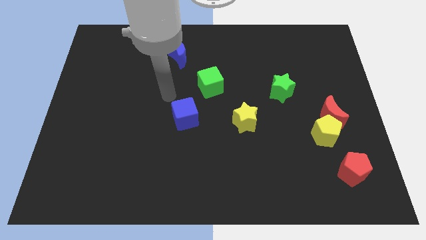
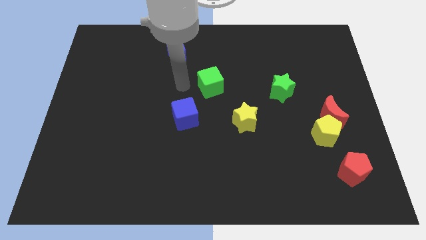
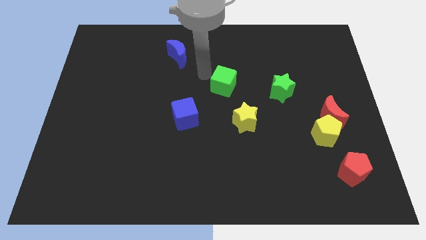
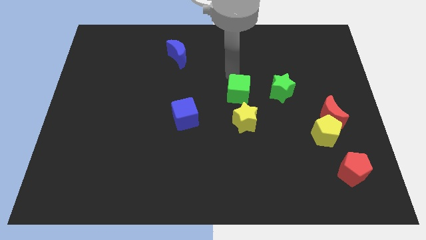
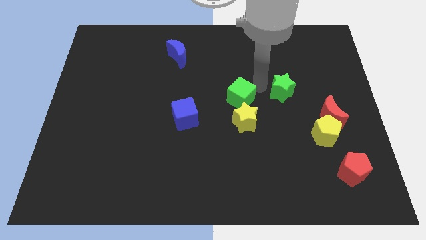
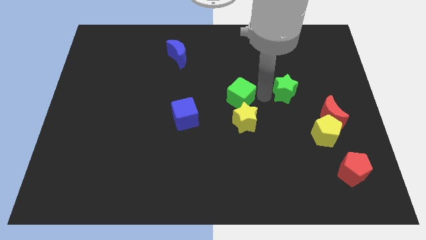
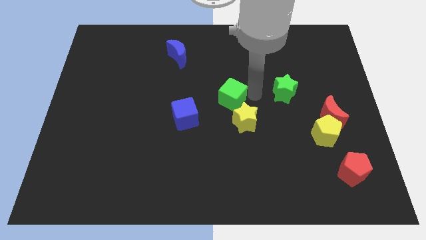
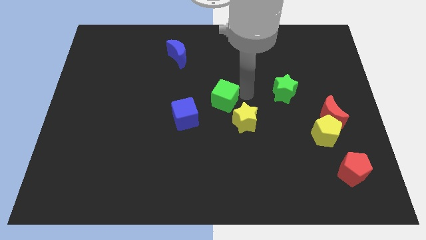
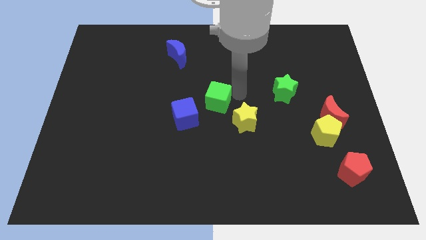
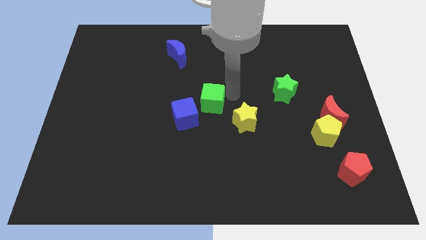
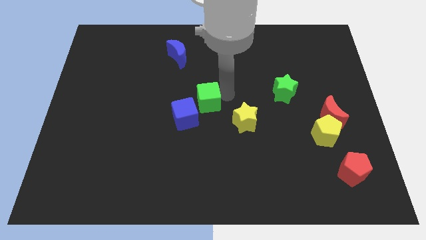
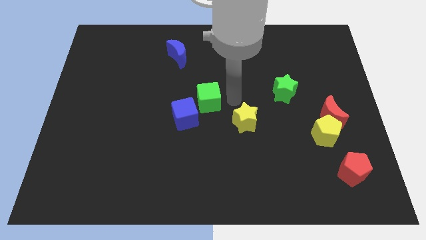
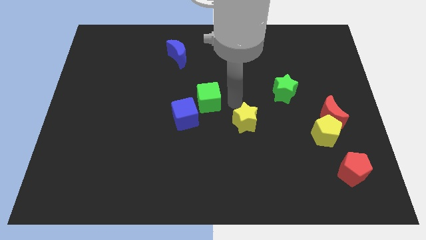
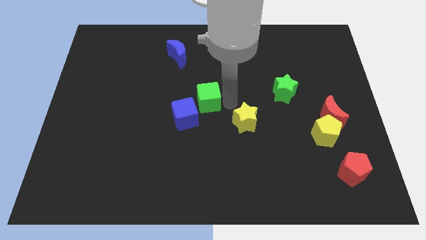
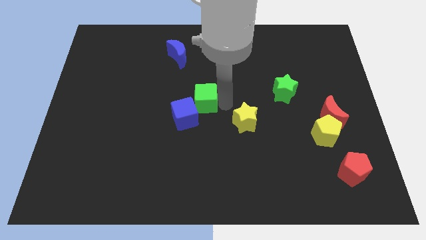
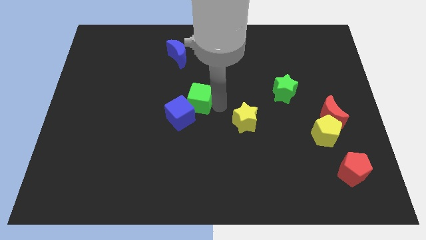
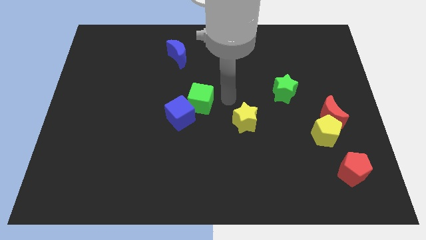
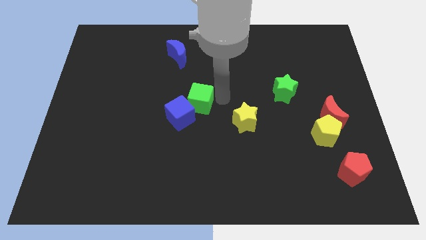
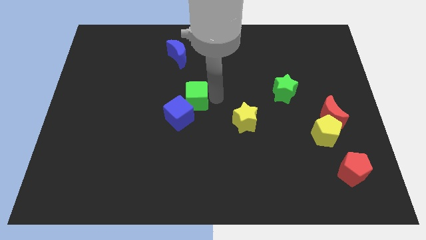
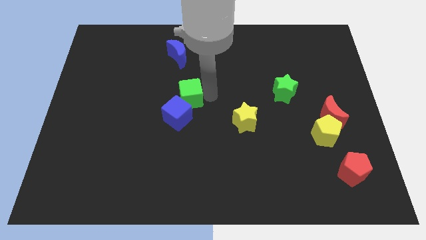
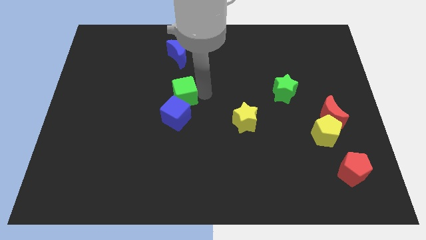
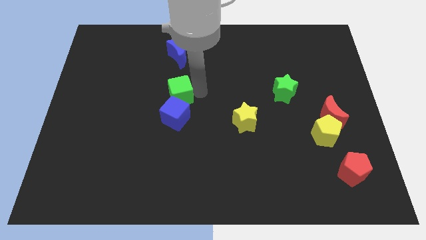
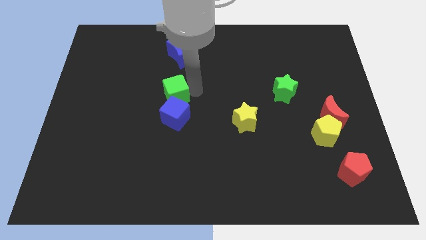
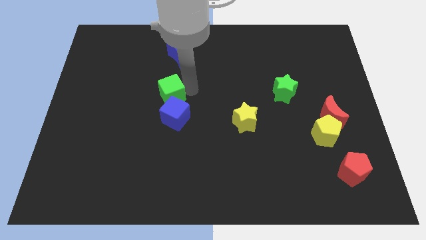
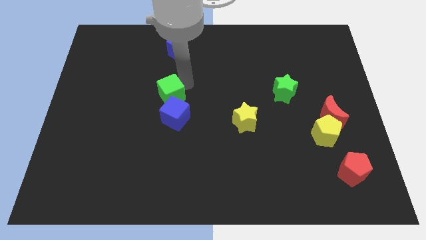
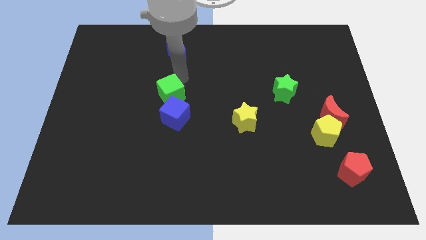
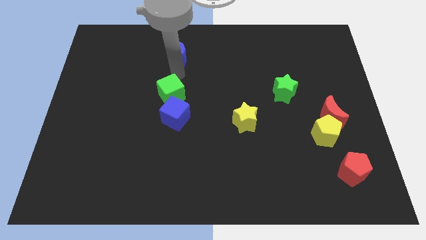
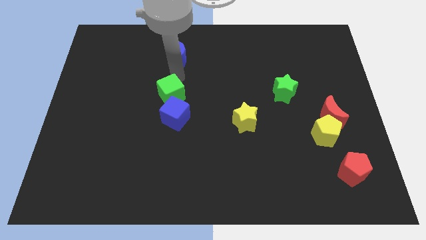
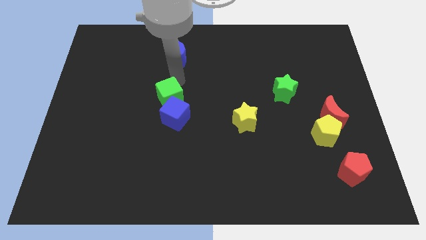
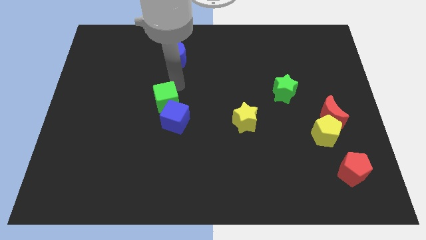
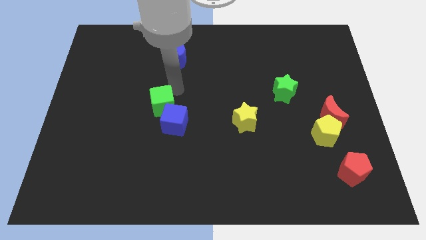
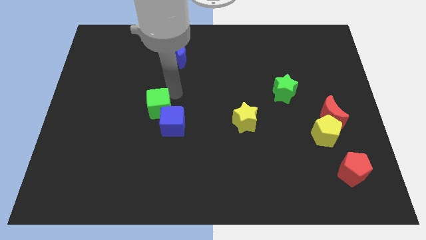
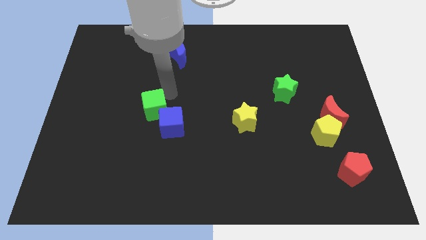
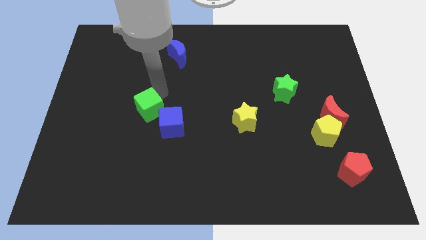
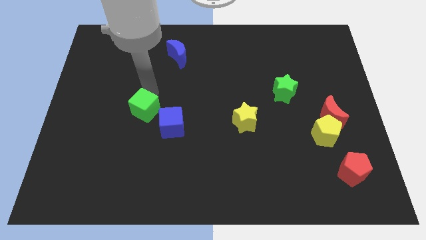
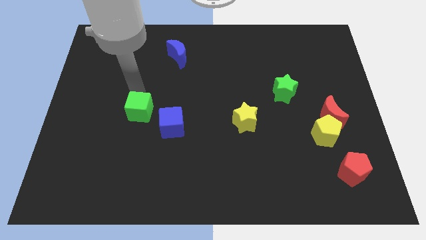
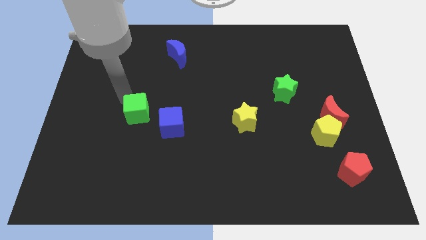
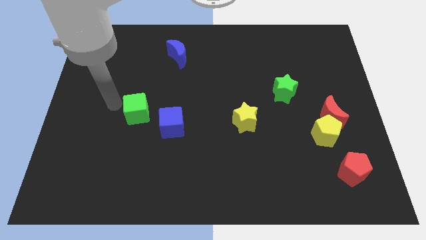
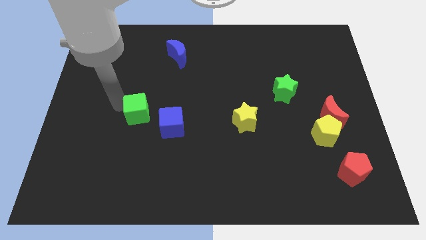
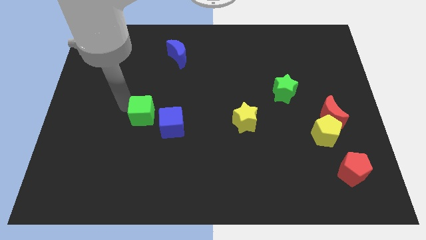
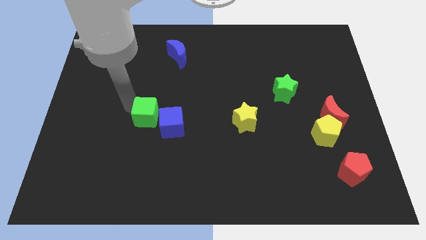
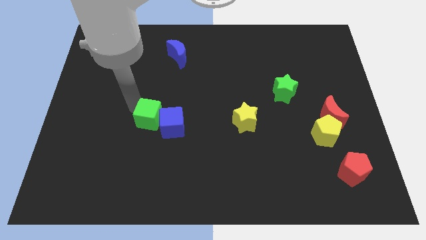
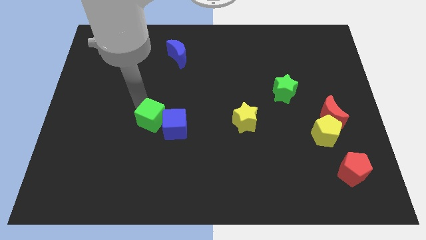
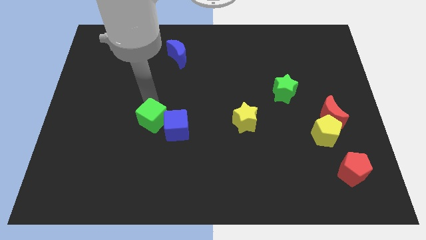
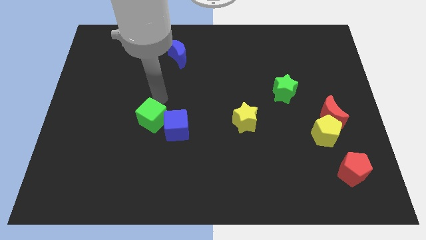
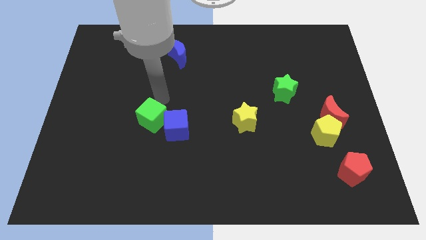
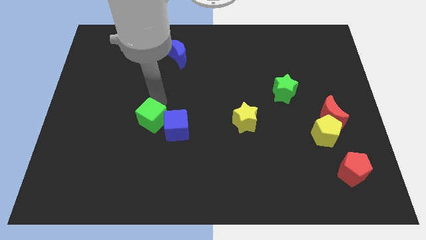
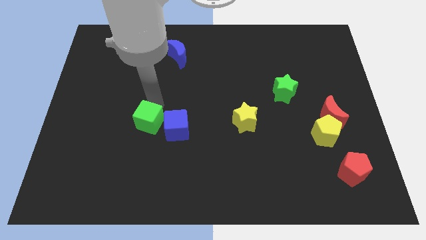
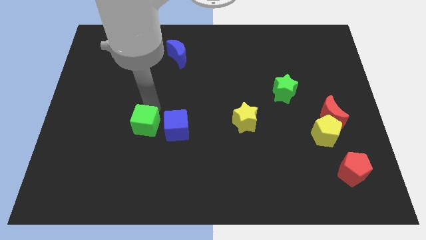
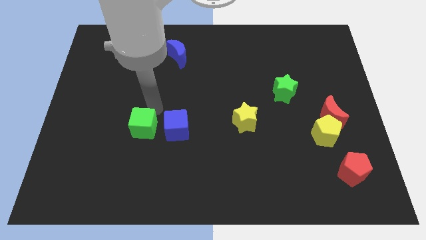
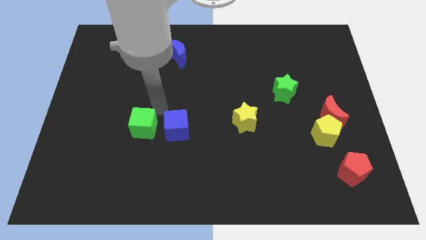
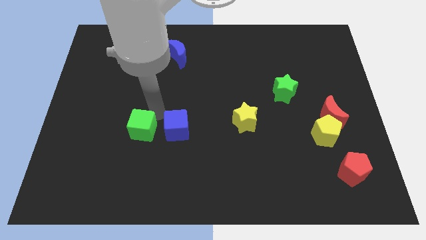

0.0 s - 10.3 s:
move the green cube diagonally downwards and to the left

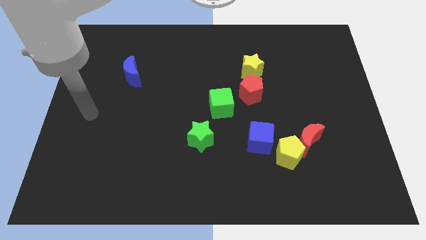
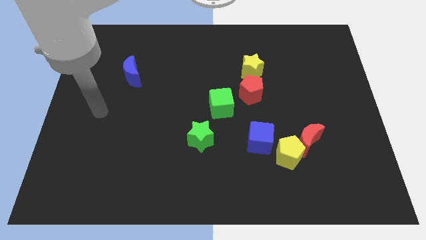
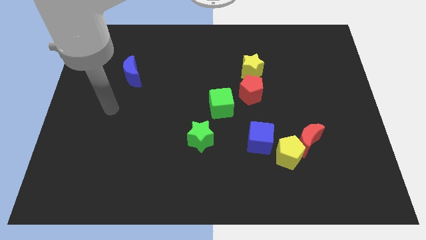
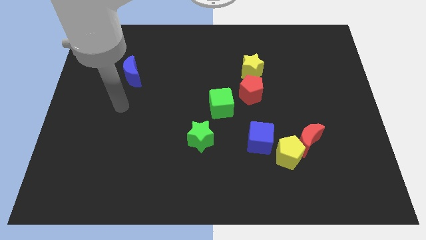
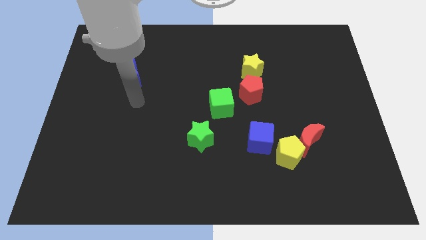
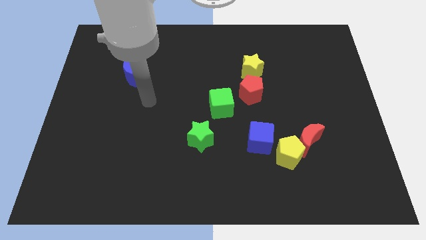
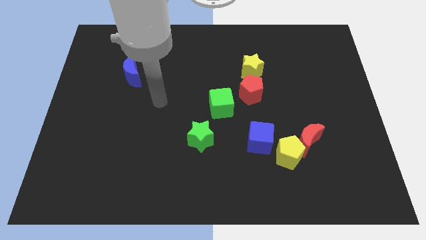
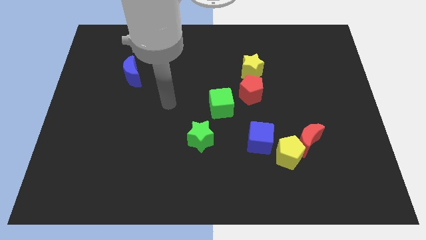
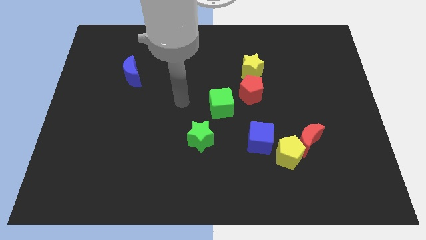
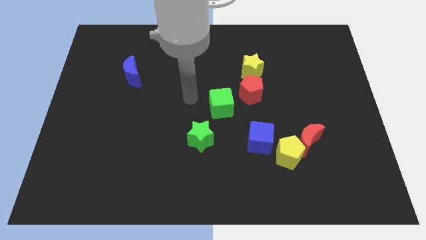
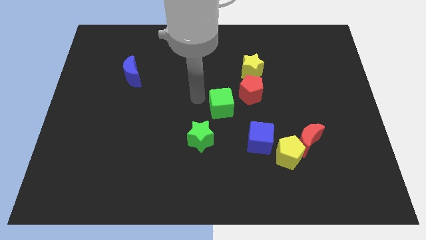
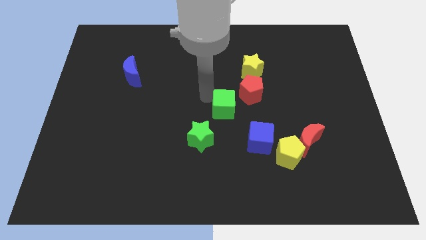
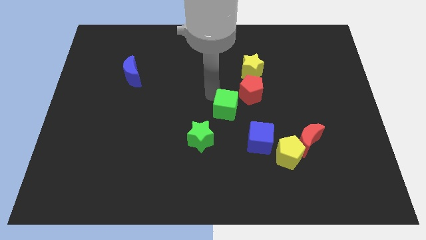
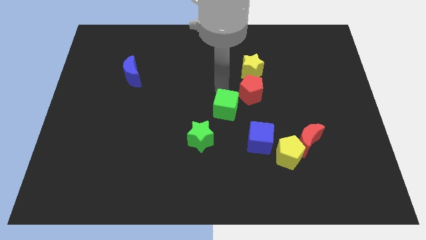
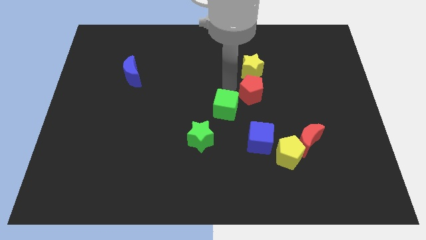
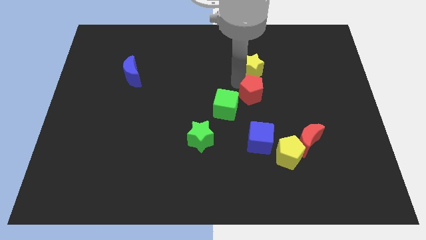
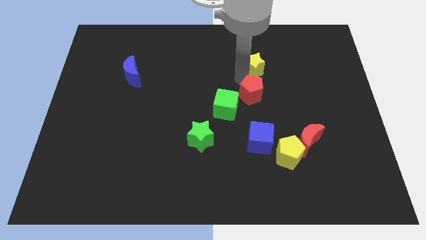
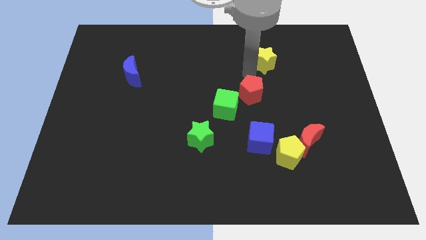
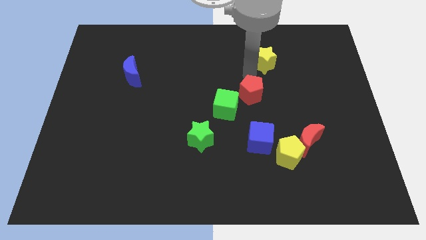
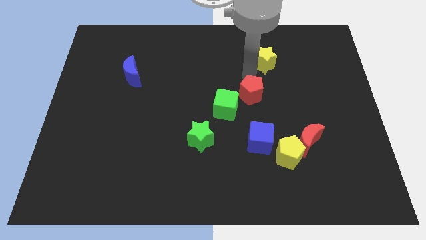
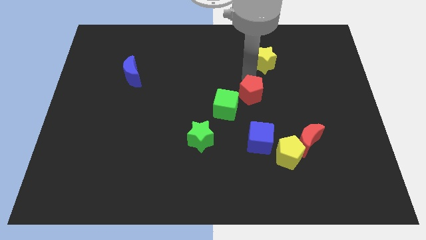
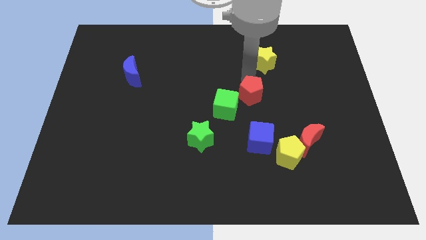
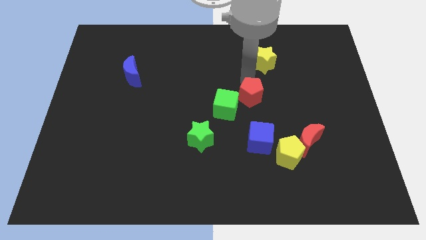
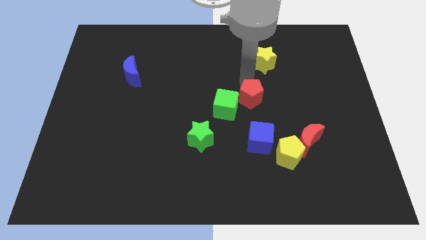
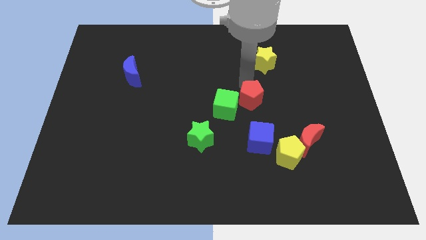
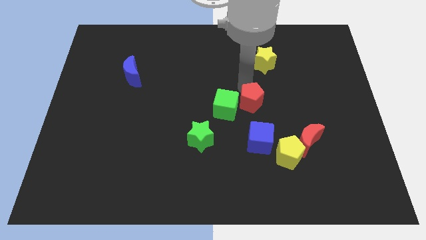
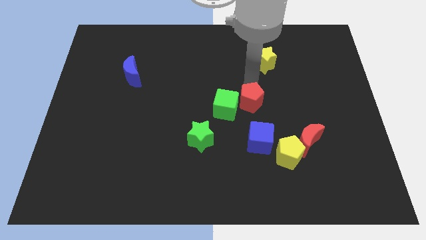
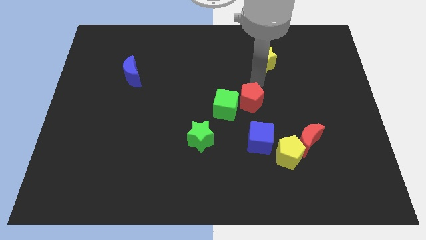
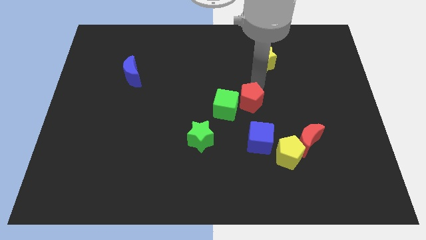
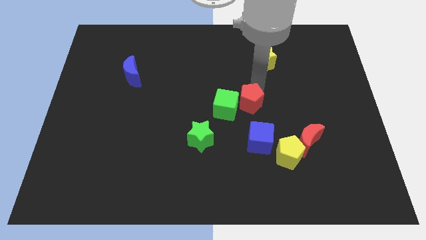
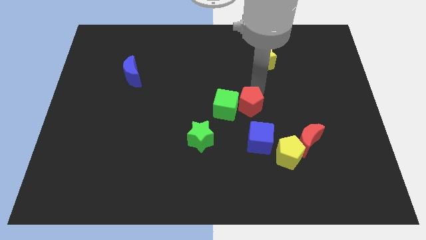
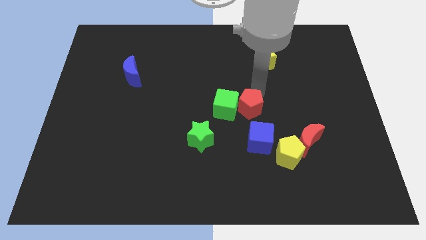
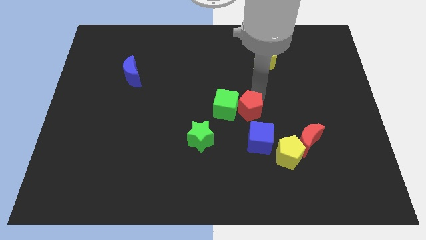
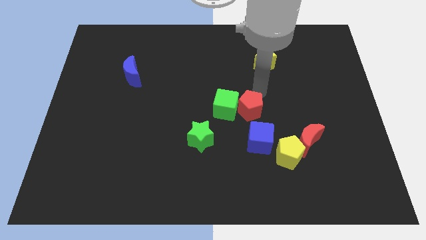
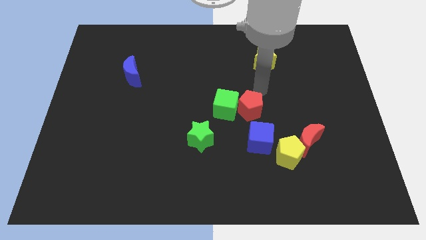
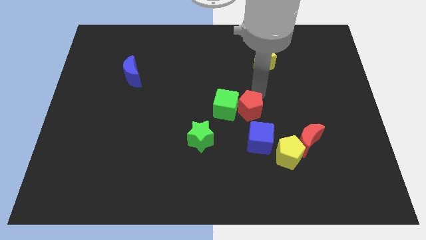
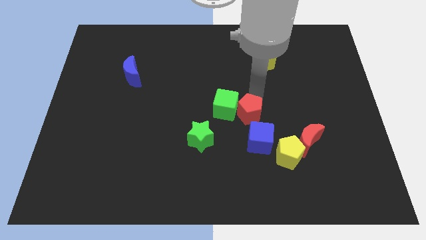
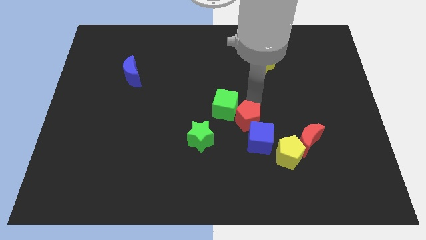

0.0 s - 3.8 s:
slightly move the red pentagon downwards
